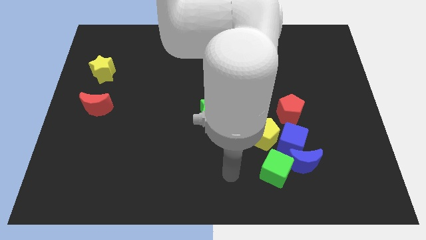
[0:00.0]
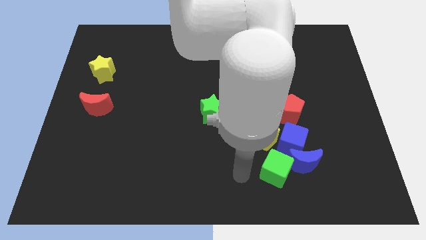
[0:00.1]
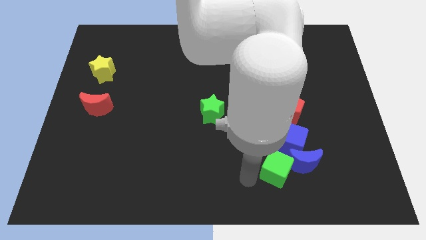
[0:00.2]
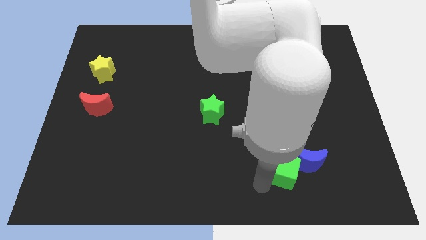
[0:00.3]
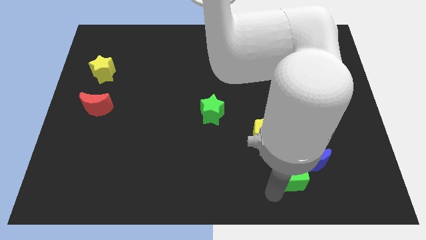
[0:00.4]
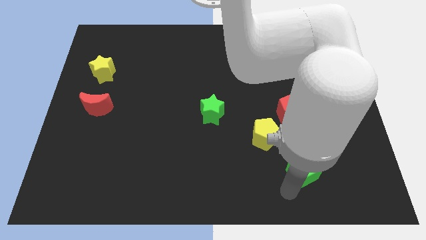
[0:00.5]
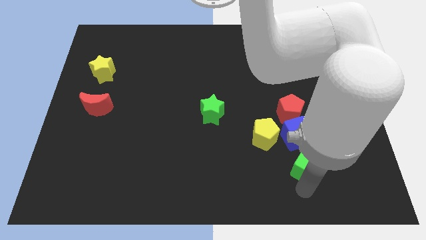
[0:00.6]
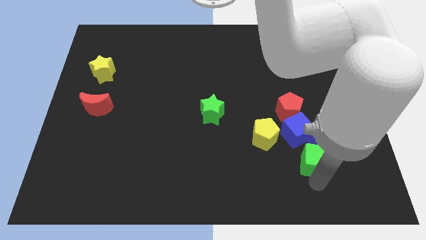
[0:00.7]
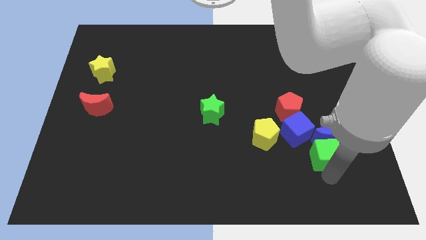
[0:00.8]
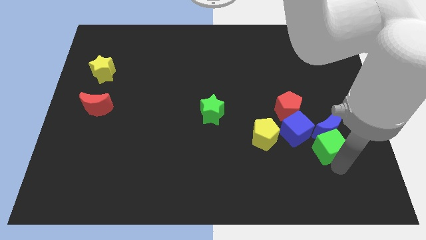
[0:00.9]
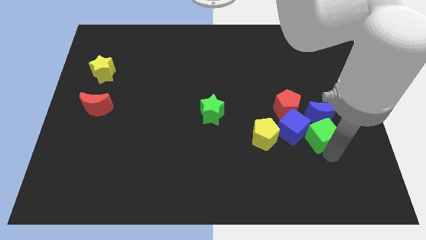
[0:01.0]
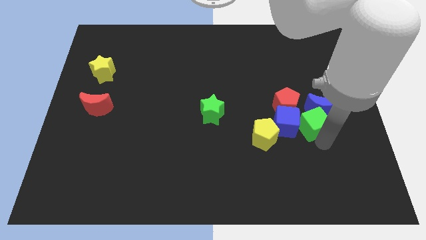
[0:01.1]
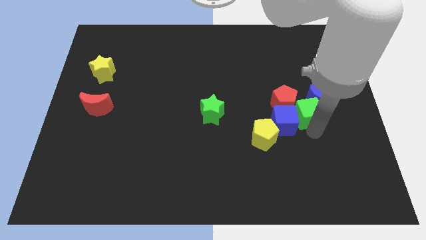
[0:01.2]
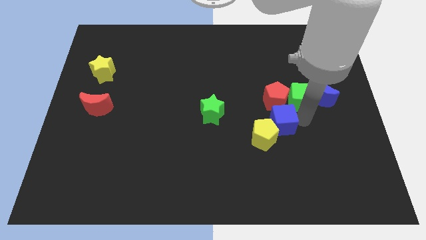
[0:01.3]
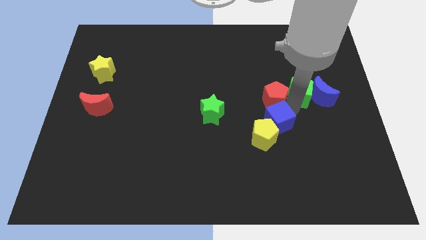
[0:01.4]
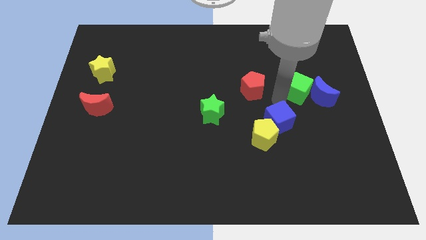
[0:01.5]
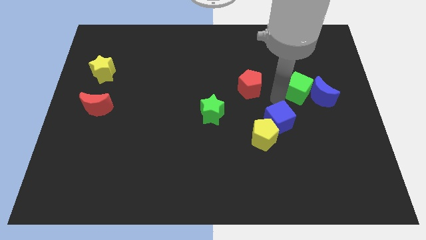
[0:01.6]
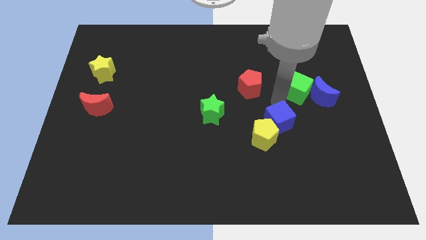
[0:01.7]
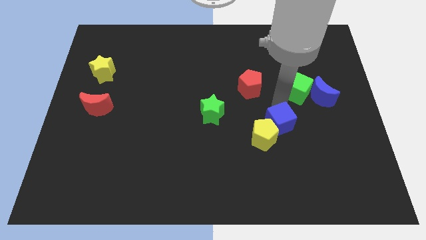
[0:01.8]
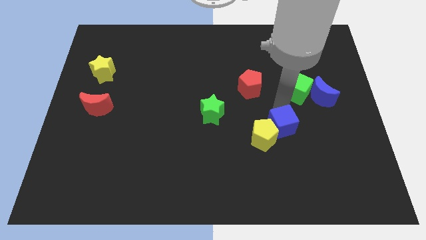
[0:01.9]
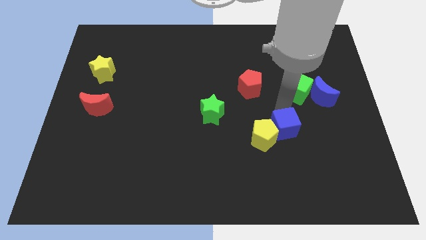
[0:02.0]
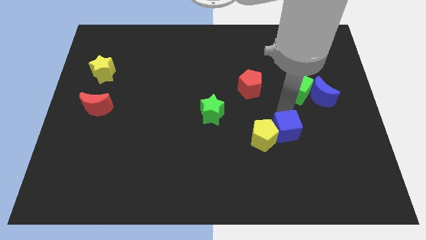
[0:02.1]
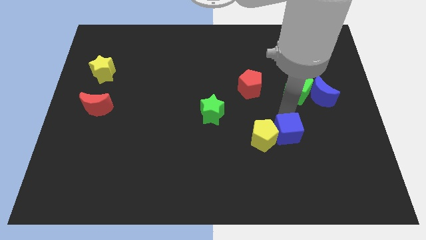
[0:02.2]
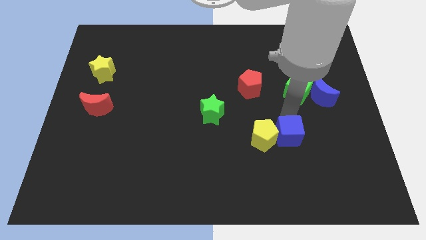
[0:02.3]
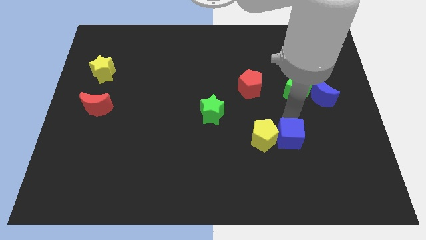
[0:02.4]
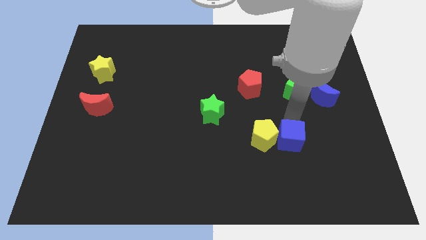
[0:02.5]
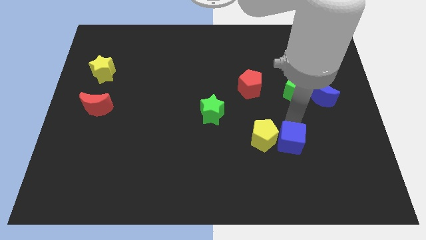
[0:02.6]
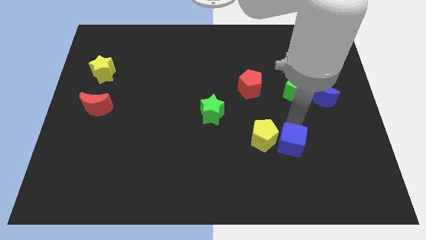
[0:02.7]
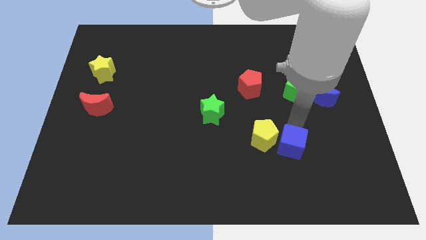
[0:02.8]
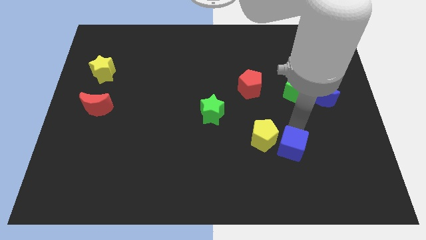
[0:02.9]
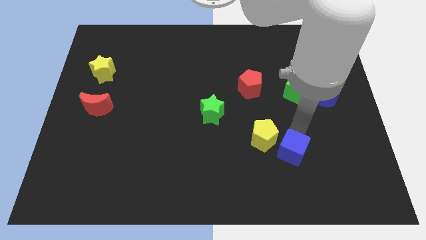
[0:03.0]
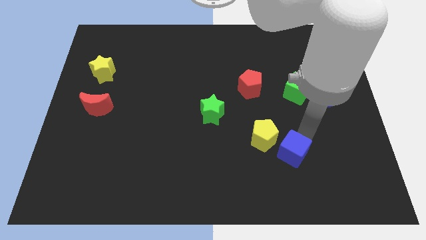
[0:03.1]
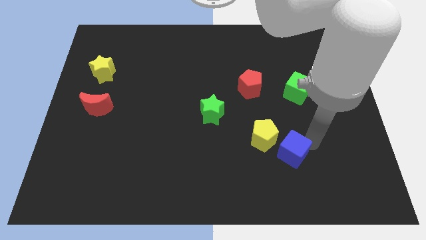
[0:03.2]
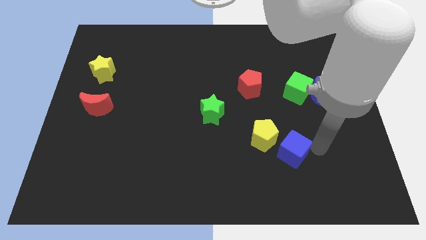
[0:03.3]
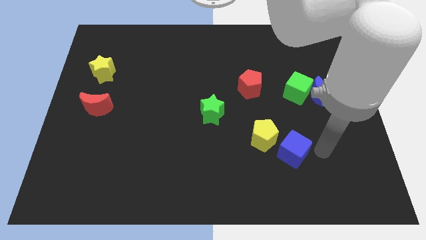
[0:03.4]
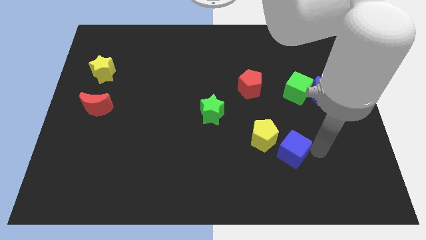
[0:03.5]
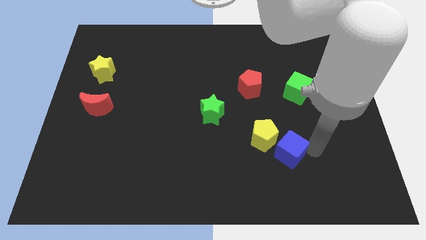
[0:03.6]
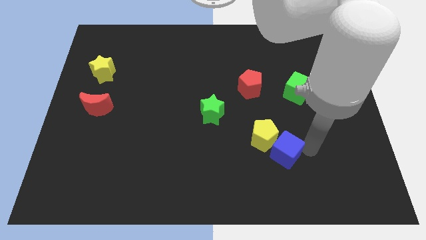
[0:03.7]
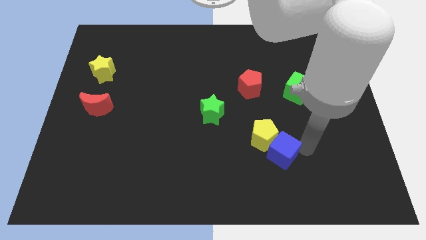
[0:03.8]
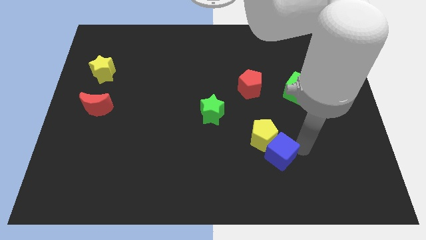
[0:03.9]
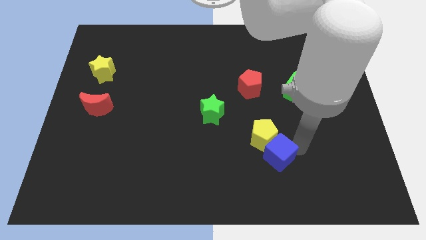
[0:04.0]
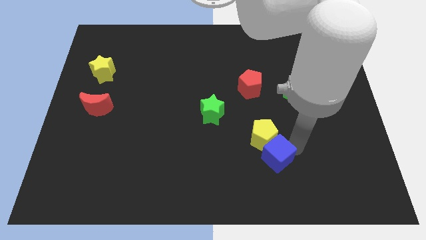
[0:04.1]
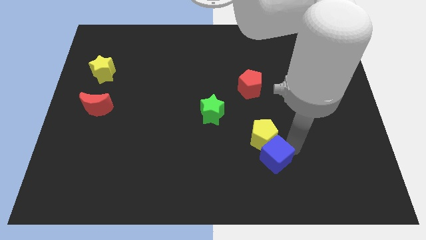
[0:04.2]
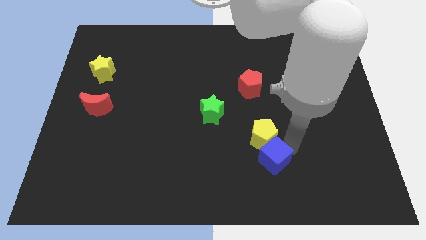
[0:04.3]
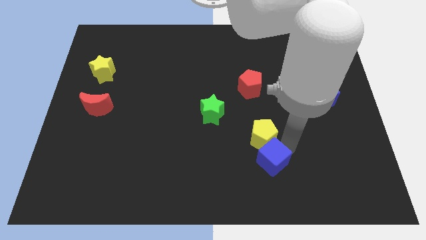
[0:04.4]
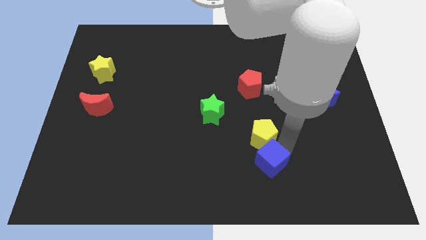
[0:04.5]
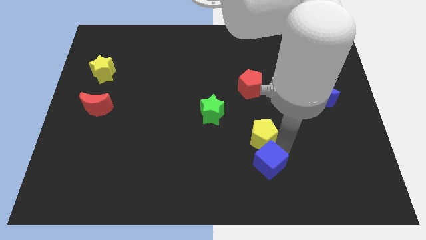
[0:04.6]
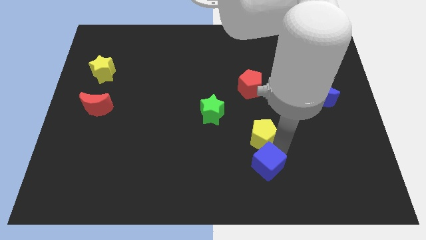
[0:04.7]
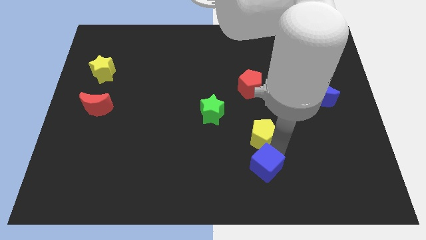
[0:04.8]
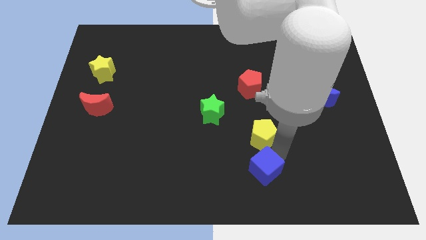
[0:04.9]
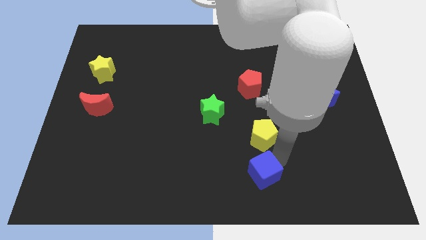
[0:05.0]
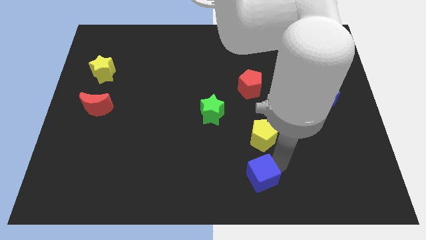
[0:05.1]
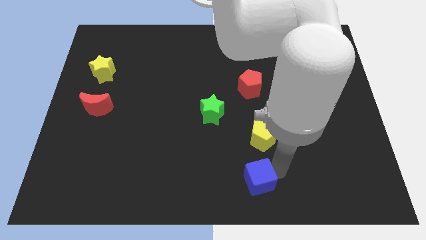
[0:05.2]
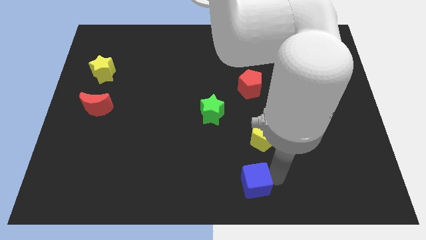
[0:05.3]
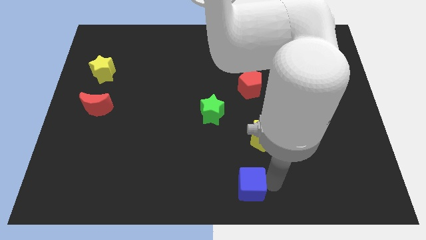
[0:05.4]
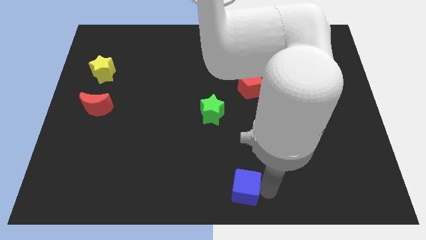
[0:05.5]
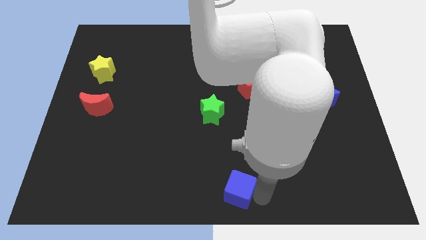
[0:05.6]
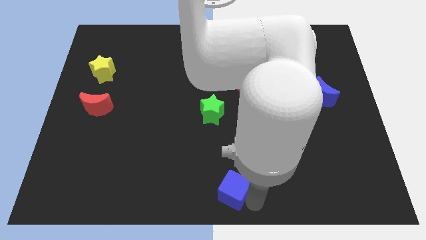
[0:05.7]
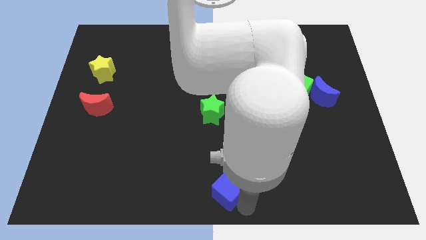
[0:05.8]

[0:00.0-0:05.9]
slightly slide the blue cube left

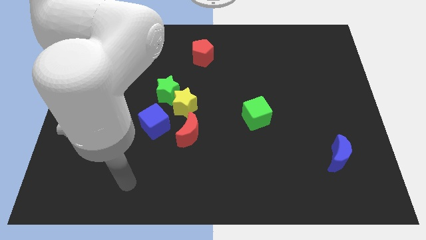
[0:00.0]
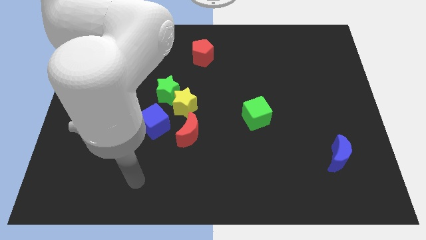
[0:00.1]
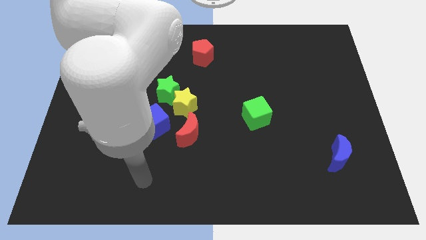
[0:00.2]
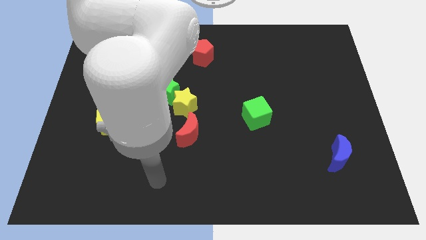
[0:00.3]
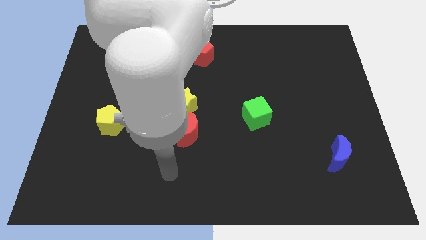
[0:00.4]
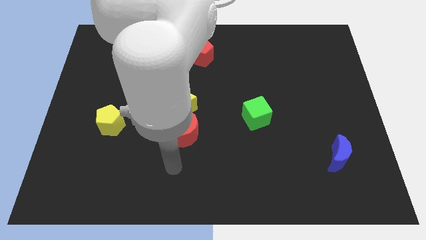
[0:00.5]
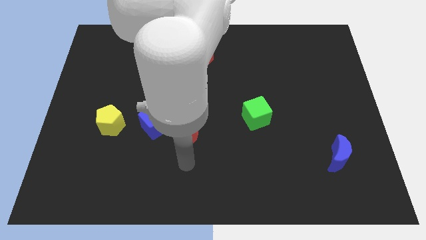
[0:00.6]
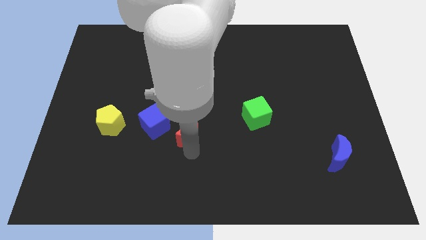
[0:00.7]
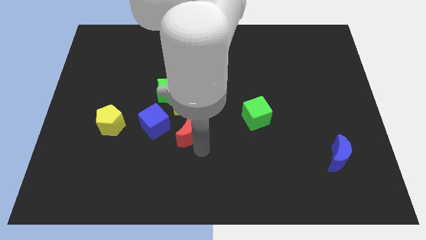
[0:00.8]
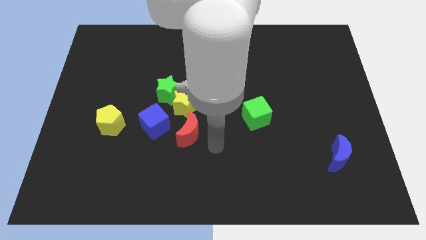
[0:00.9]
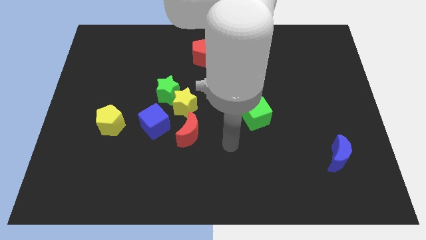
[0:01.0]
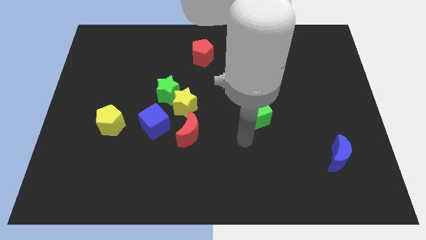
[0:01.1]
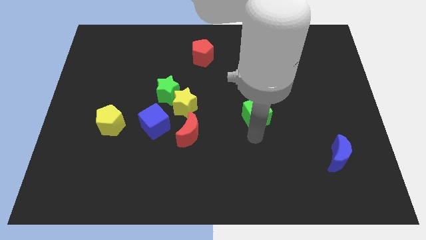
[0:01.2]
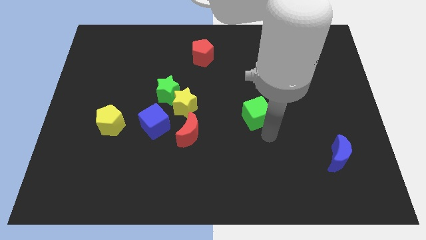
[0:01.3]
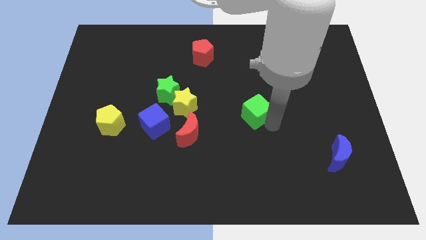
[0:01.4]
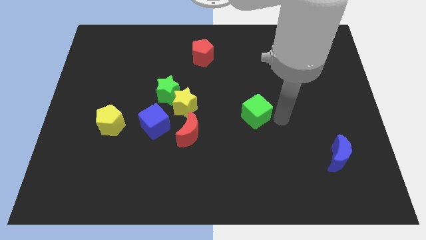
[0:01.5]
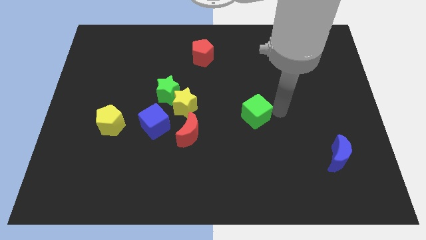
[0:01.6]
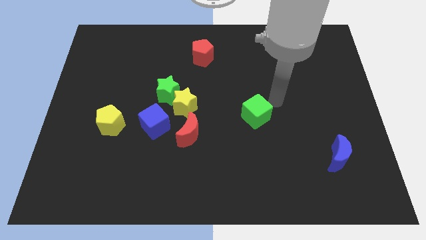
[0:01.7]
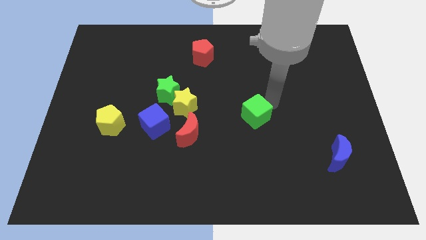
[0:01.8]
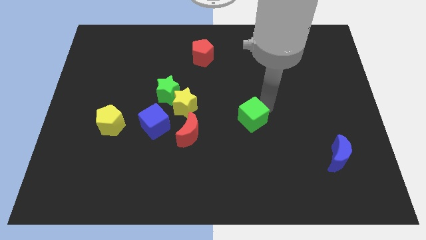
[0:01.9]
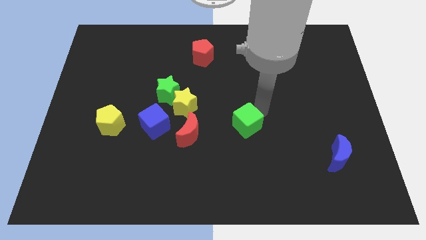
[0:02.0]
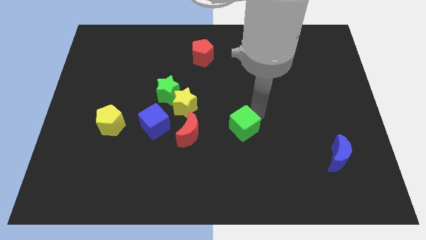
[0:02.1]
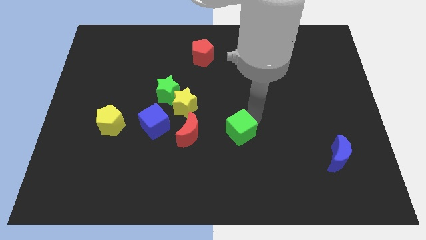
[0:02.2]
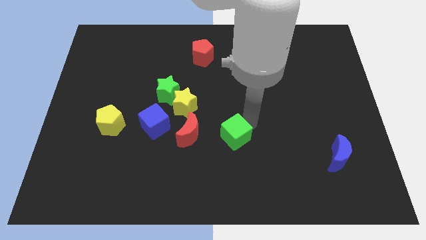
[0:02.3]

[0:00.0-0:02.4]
slightly move the green cube diagonally downwards and to the left
